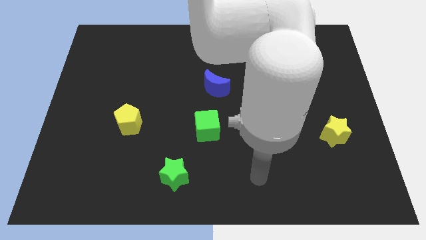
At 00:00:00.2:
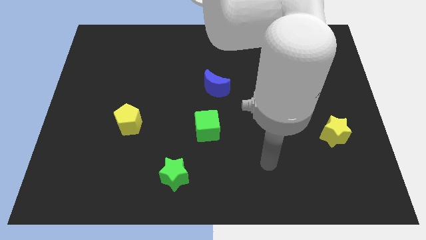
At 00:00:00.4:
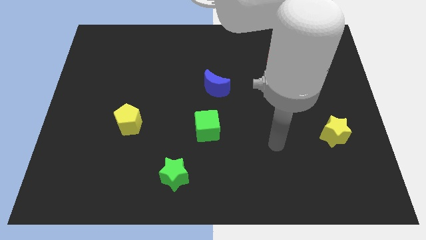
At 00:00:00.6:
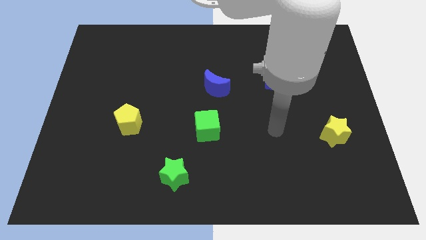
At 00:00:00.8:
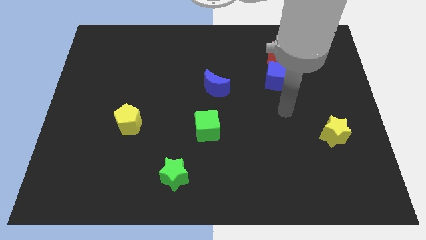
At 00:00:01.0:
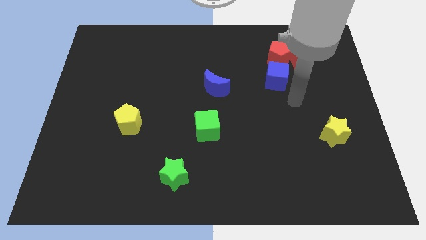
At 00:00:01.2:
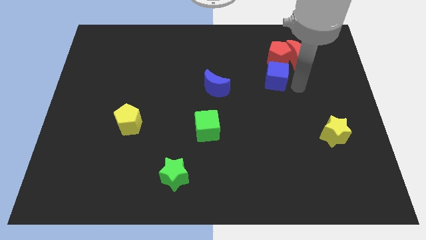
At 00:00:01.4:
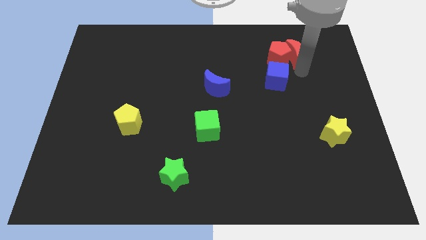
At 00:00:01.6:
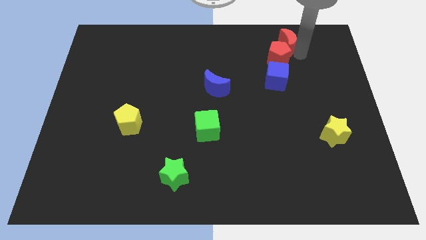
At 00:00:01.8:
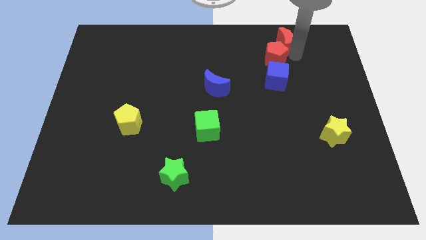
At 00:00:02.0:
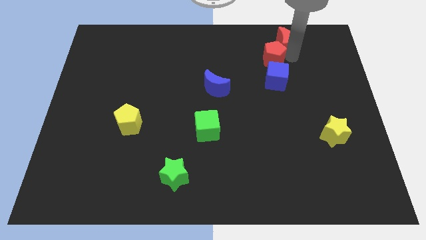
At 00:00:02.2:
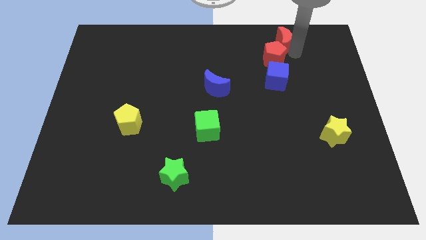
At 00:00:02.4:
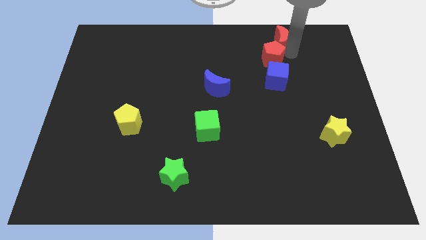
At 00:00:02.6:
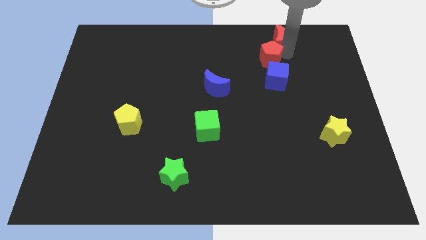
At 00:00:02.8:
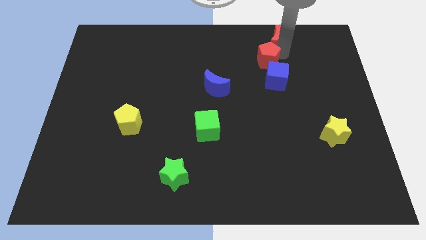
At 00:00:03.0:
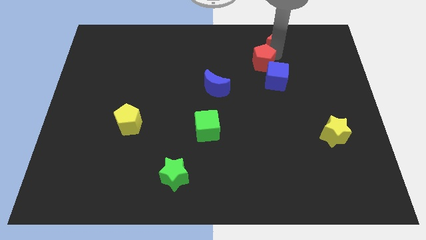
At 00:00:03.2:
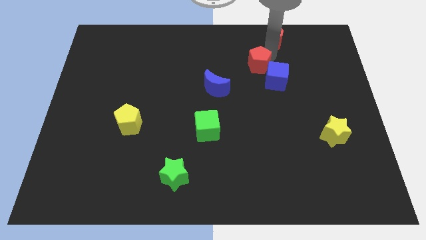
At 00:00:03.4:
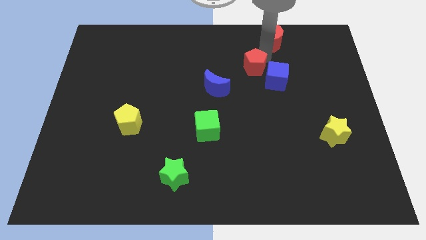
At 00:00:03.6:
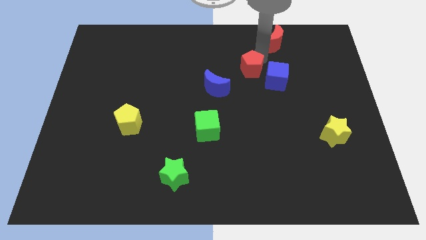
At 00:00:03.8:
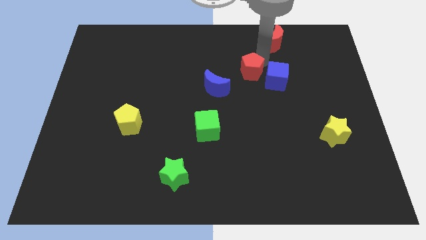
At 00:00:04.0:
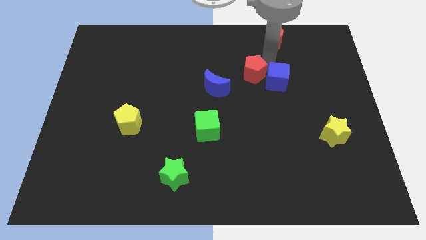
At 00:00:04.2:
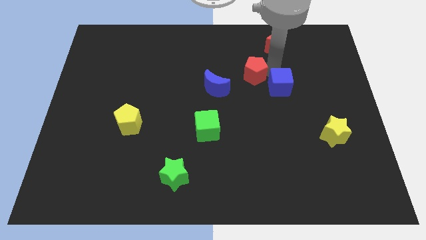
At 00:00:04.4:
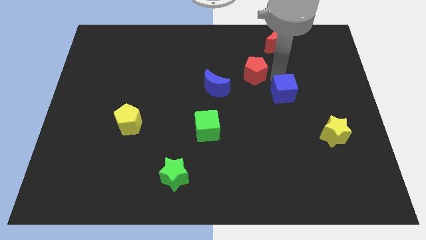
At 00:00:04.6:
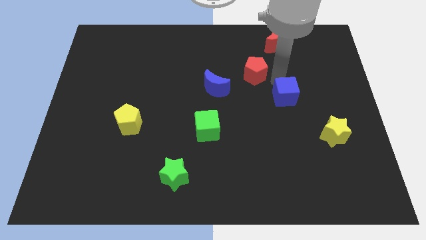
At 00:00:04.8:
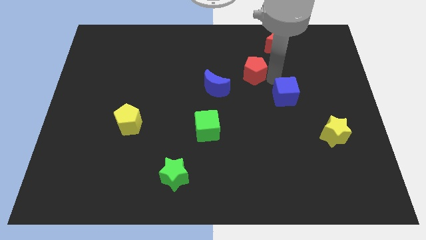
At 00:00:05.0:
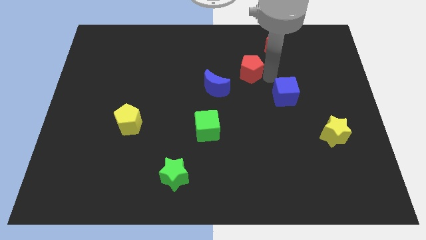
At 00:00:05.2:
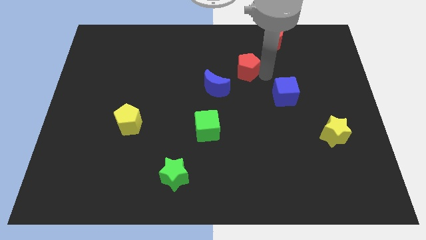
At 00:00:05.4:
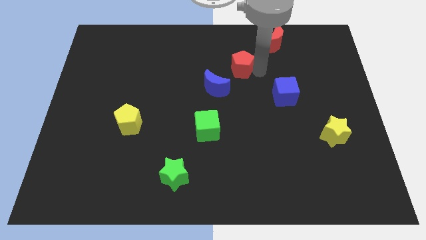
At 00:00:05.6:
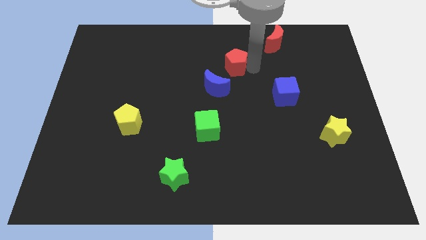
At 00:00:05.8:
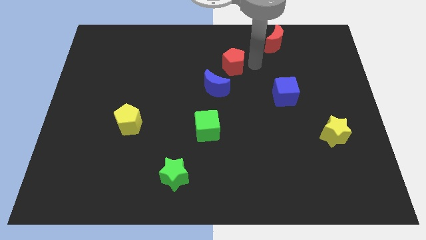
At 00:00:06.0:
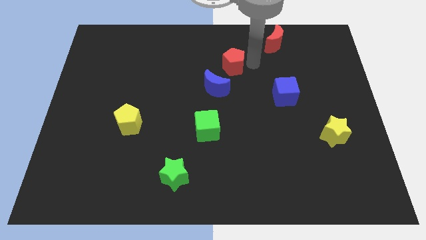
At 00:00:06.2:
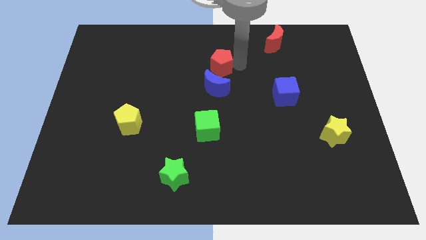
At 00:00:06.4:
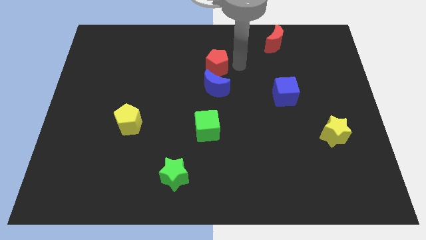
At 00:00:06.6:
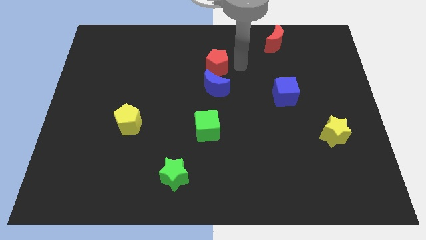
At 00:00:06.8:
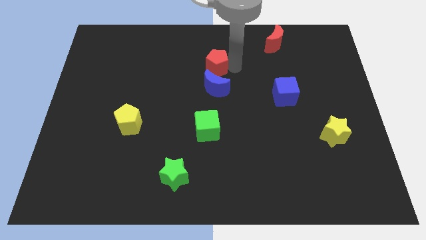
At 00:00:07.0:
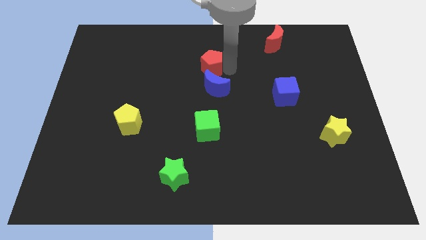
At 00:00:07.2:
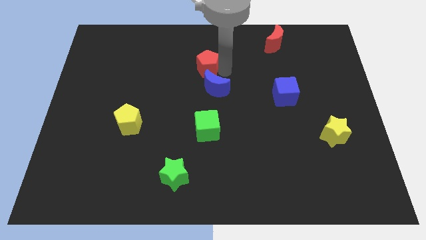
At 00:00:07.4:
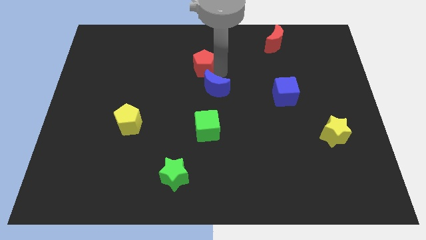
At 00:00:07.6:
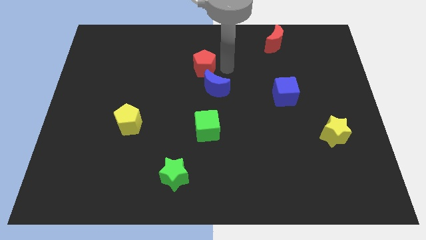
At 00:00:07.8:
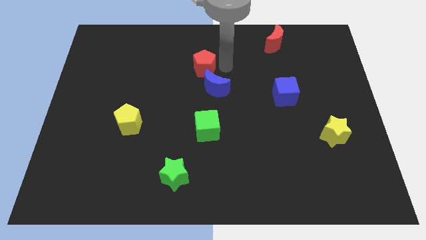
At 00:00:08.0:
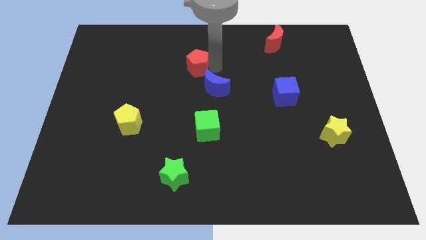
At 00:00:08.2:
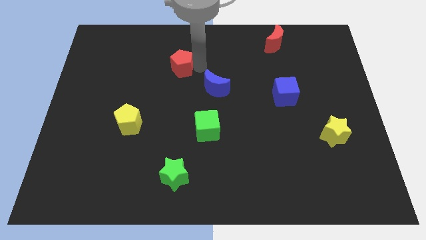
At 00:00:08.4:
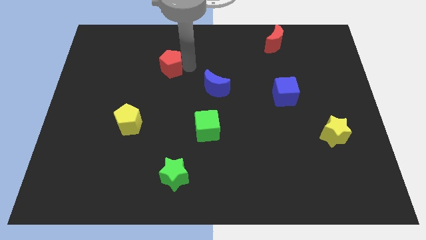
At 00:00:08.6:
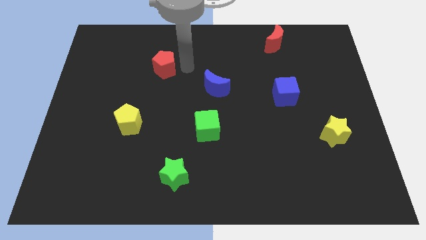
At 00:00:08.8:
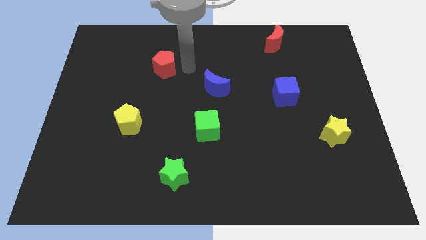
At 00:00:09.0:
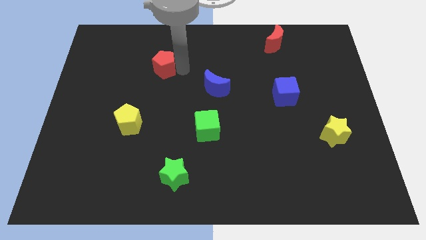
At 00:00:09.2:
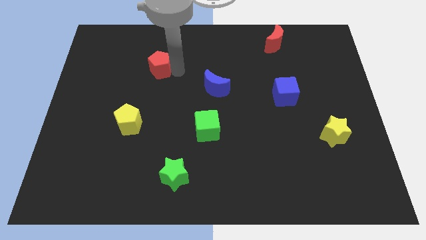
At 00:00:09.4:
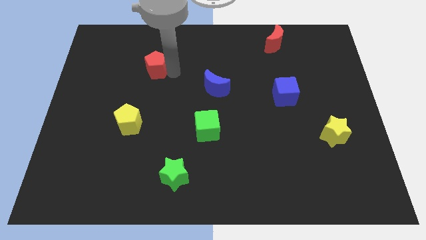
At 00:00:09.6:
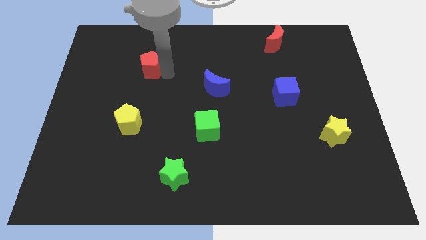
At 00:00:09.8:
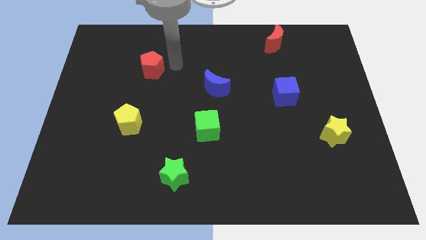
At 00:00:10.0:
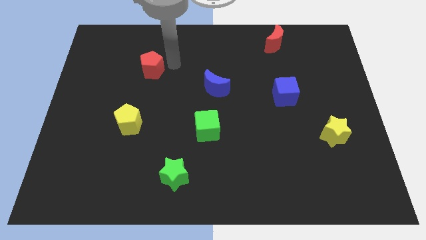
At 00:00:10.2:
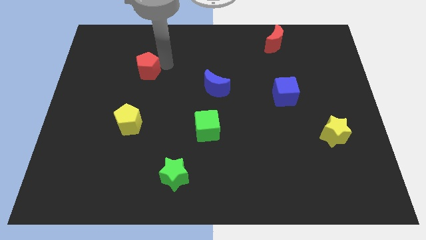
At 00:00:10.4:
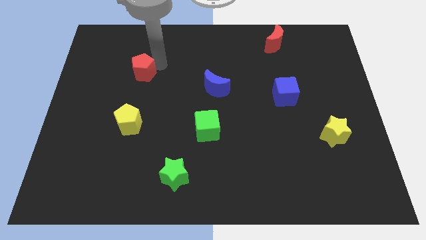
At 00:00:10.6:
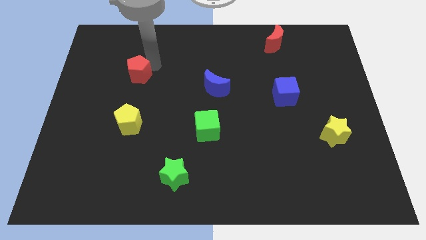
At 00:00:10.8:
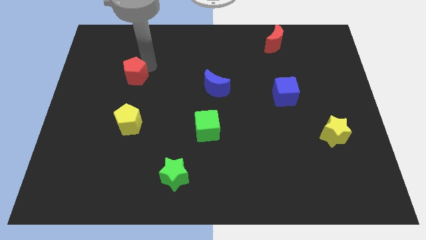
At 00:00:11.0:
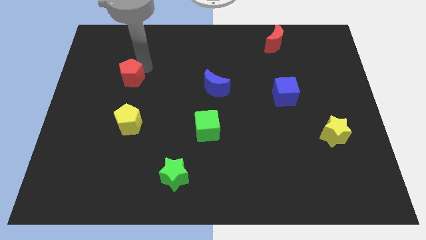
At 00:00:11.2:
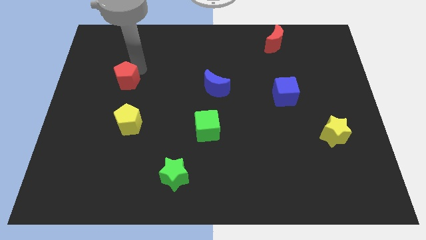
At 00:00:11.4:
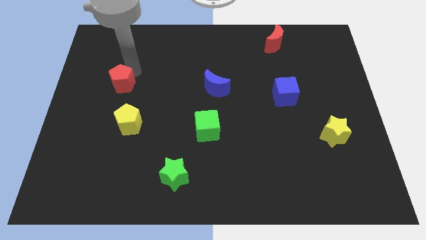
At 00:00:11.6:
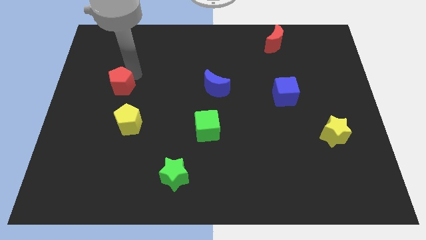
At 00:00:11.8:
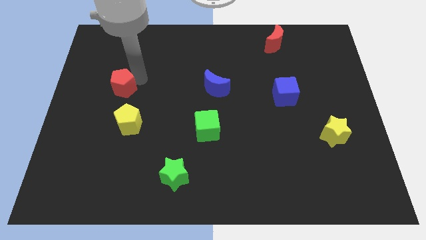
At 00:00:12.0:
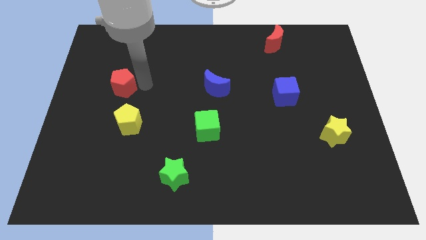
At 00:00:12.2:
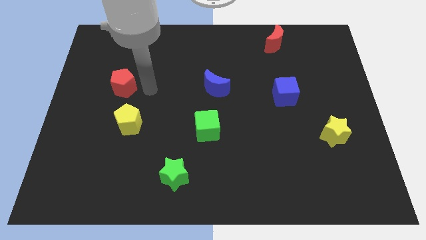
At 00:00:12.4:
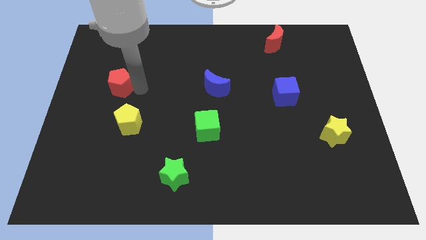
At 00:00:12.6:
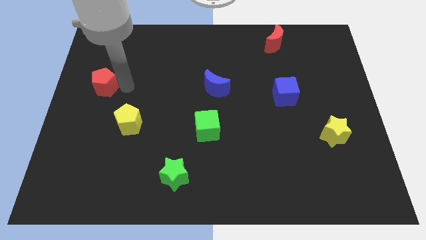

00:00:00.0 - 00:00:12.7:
push the red pentagon to the center left
